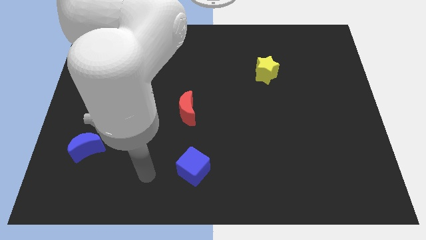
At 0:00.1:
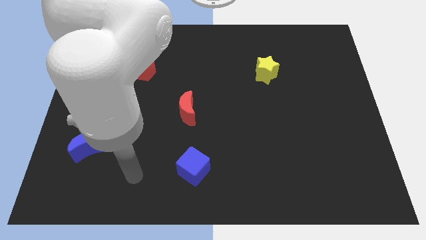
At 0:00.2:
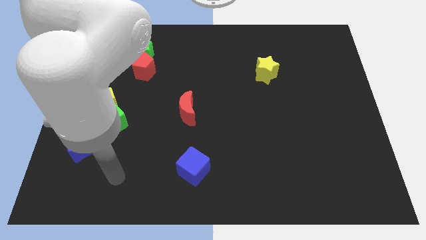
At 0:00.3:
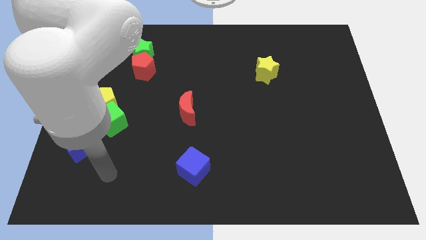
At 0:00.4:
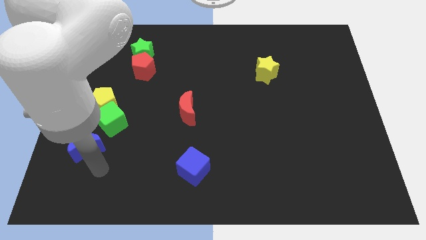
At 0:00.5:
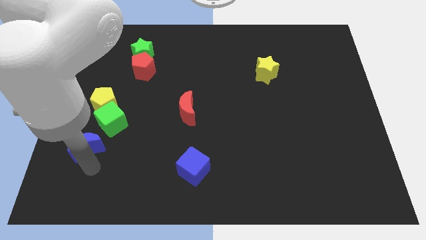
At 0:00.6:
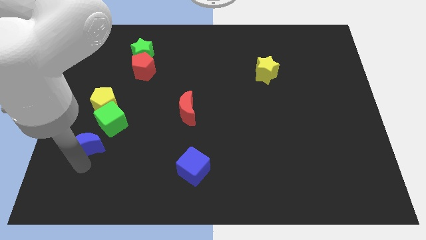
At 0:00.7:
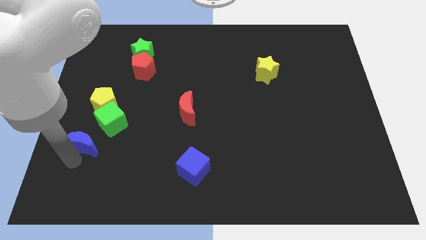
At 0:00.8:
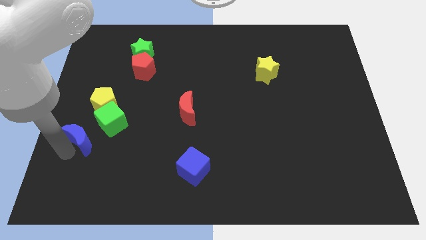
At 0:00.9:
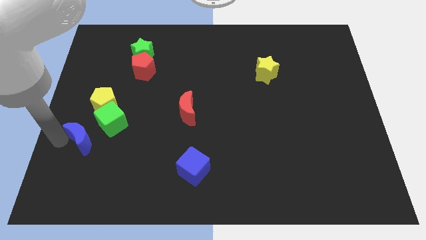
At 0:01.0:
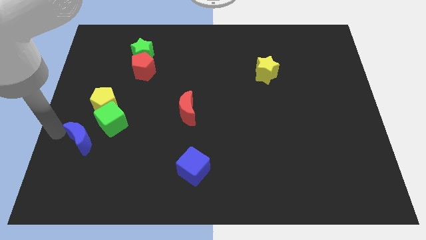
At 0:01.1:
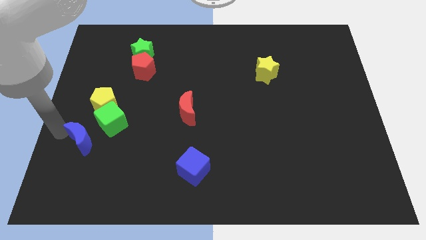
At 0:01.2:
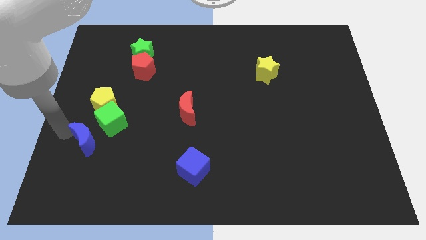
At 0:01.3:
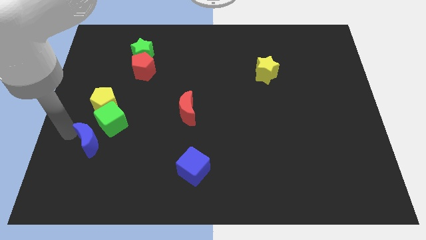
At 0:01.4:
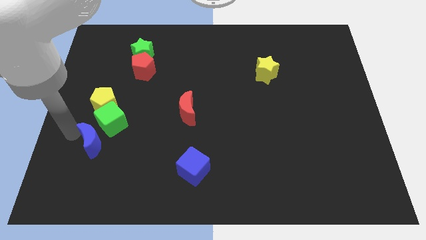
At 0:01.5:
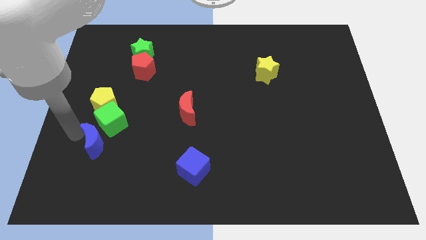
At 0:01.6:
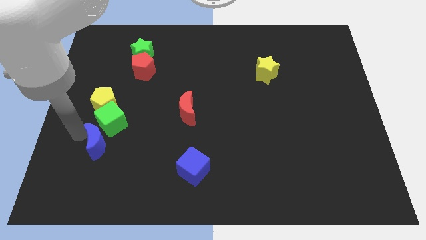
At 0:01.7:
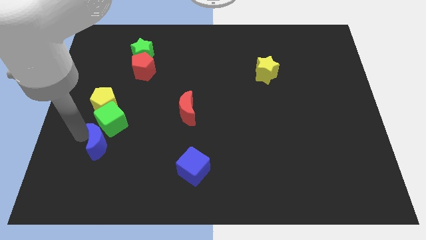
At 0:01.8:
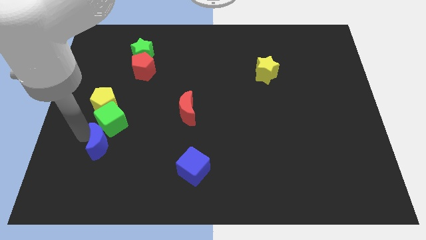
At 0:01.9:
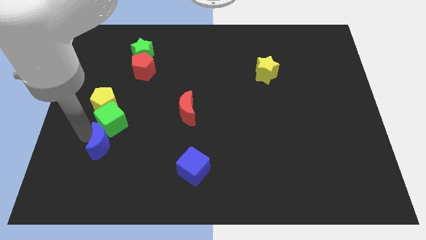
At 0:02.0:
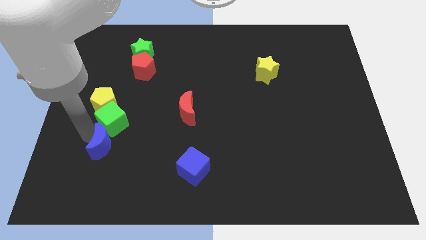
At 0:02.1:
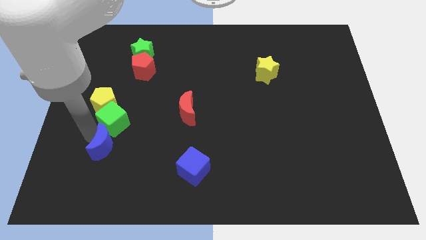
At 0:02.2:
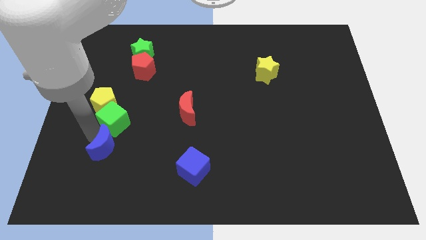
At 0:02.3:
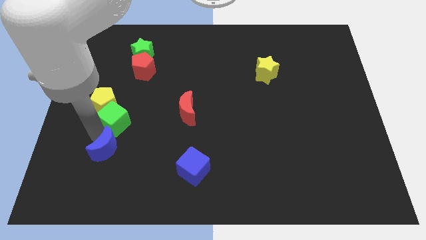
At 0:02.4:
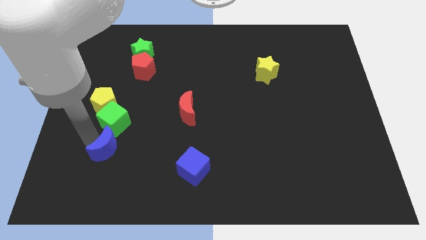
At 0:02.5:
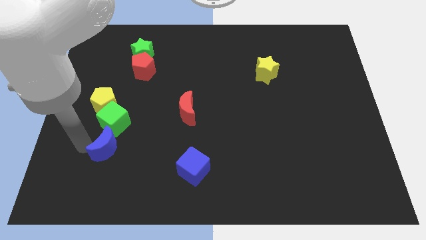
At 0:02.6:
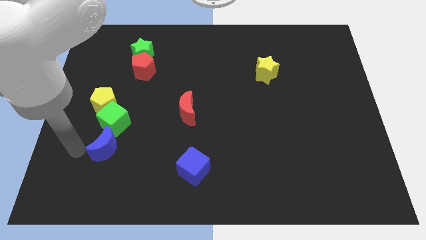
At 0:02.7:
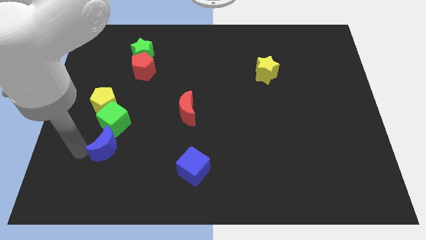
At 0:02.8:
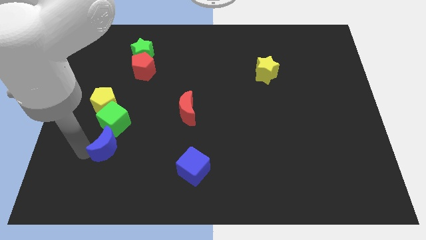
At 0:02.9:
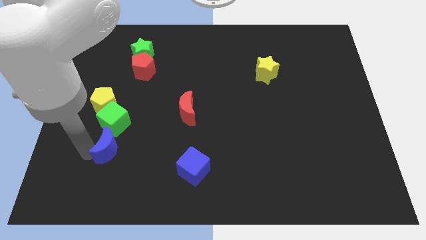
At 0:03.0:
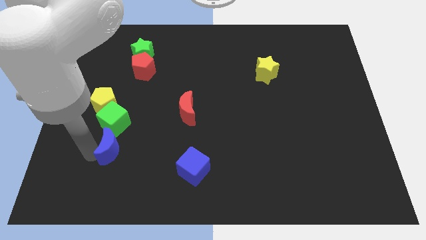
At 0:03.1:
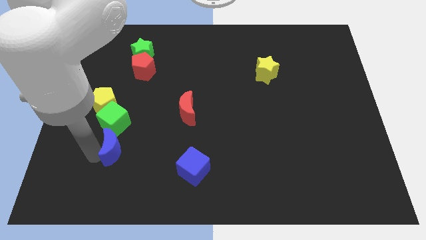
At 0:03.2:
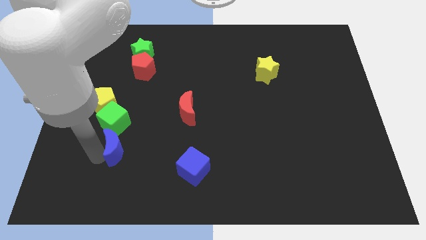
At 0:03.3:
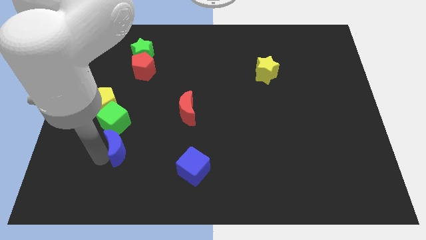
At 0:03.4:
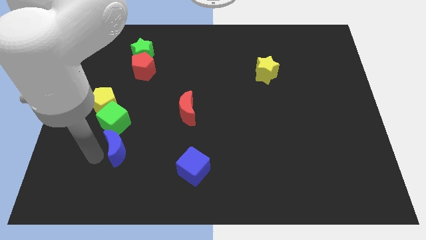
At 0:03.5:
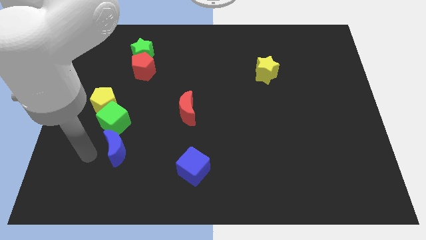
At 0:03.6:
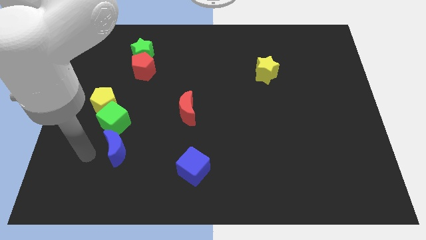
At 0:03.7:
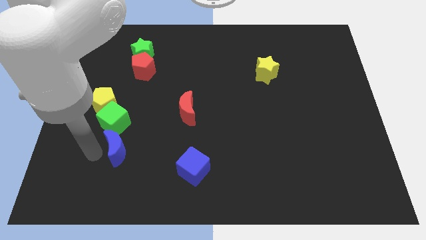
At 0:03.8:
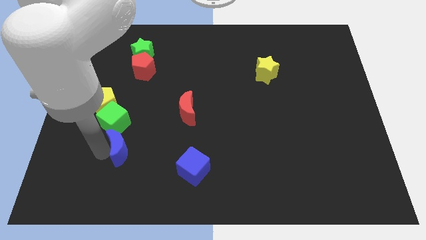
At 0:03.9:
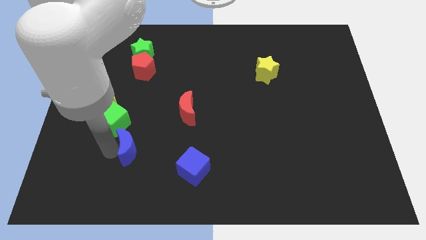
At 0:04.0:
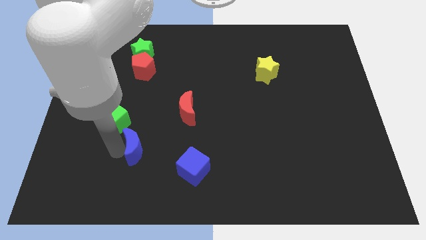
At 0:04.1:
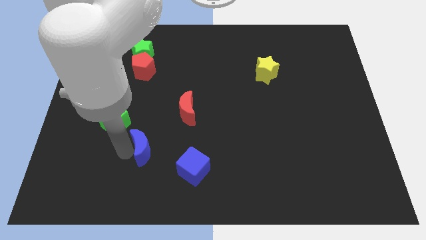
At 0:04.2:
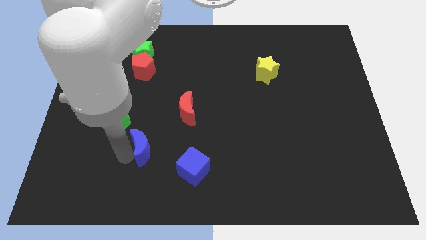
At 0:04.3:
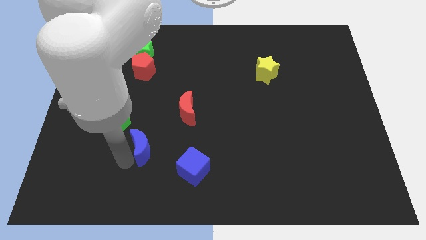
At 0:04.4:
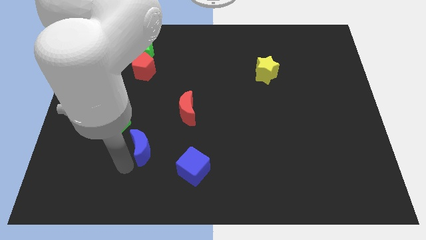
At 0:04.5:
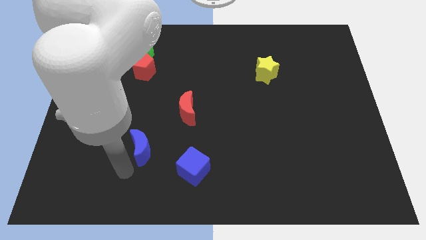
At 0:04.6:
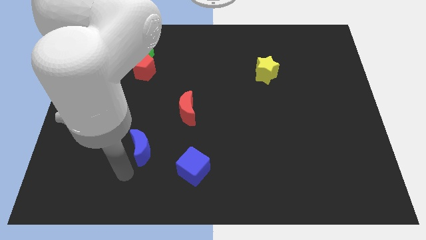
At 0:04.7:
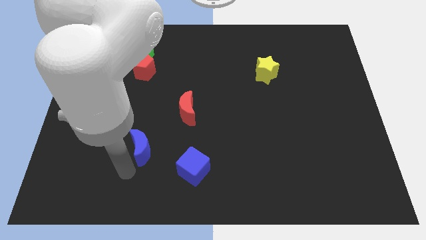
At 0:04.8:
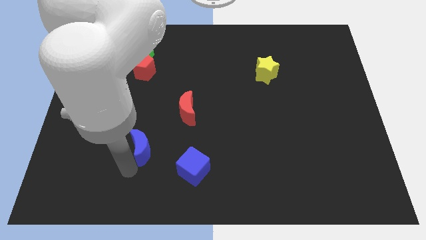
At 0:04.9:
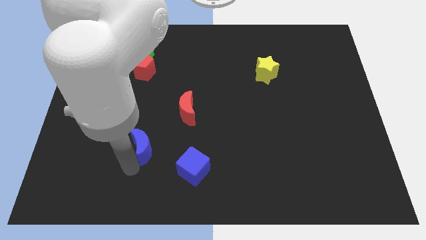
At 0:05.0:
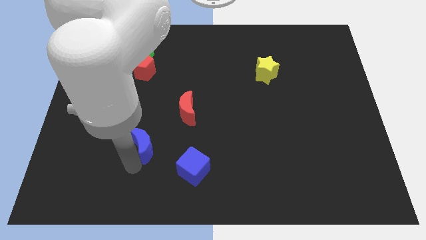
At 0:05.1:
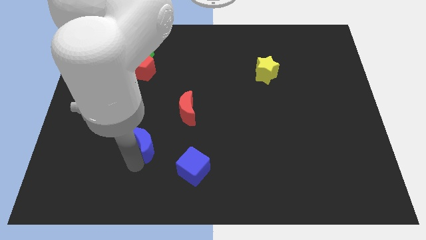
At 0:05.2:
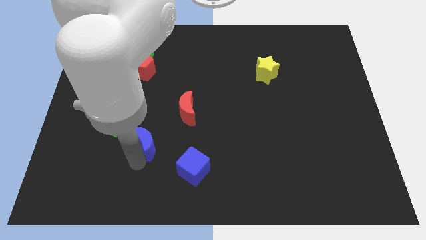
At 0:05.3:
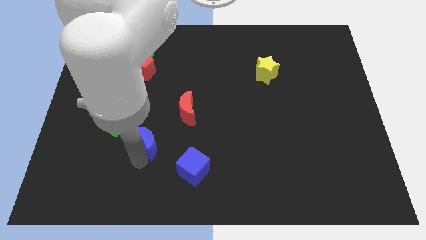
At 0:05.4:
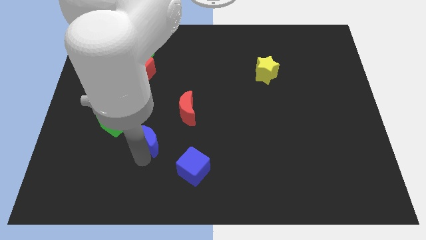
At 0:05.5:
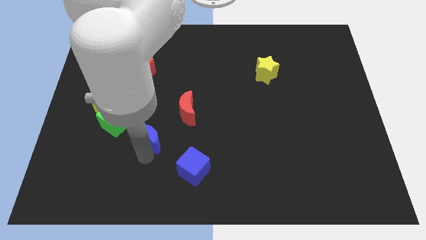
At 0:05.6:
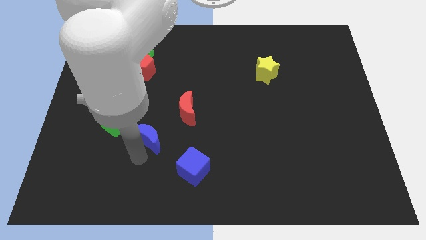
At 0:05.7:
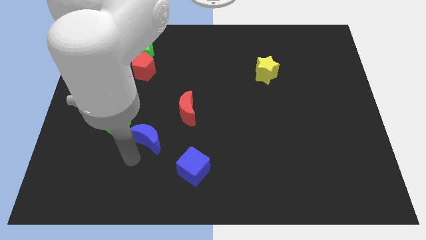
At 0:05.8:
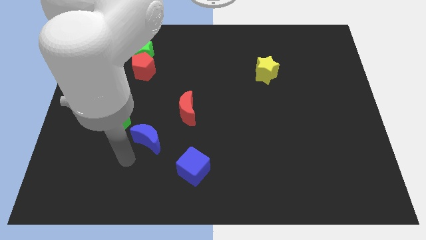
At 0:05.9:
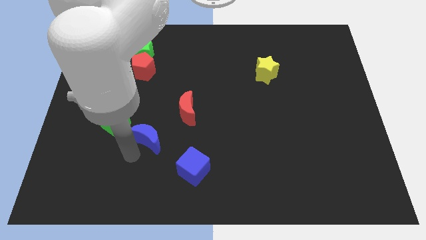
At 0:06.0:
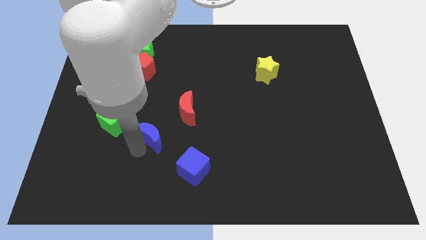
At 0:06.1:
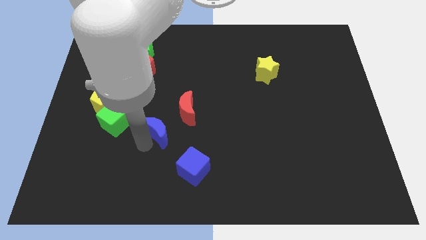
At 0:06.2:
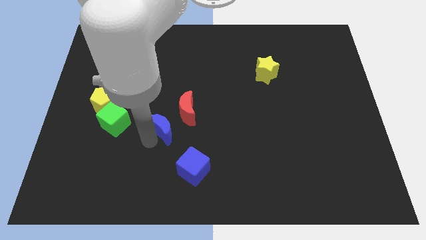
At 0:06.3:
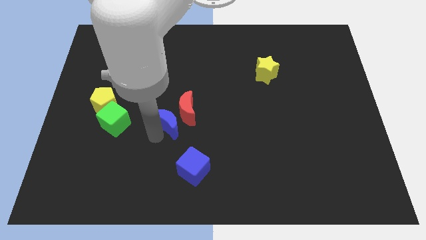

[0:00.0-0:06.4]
put the blue moon close to the red moon

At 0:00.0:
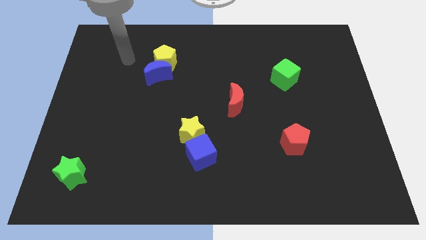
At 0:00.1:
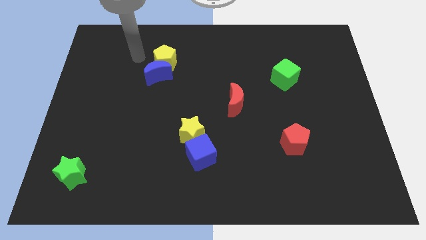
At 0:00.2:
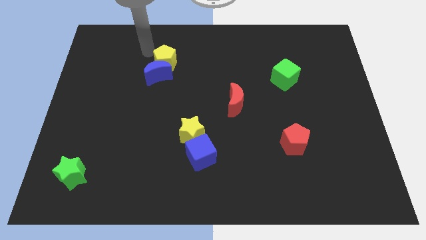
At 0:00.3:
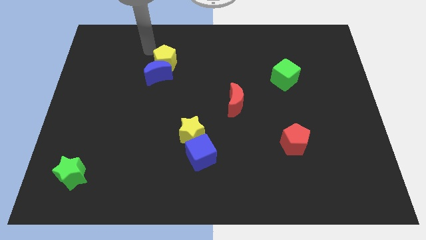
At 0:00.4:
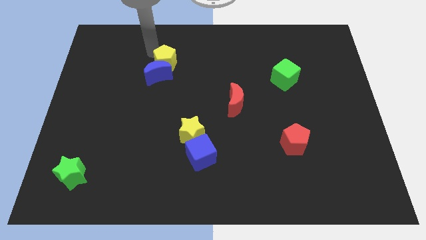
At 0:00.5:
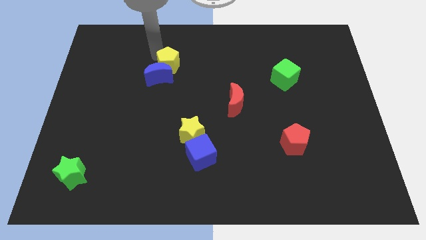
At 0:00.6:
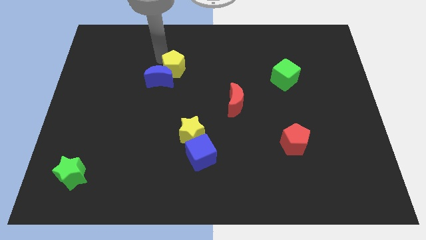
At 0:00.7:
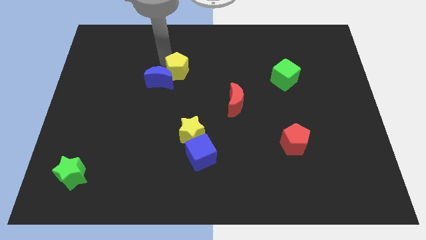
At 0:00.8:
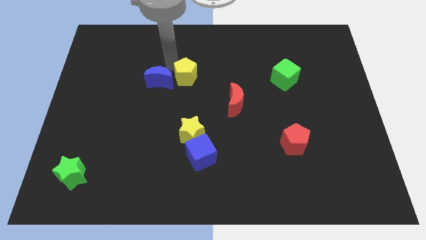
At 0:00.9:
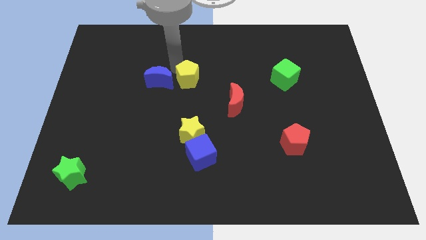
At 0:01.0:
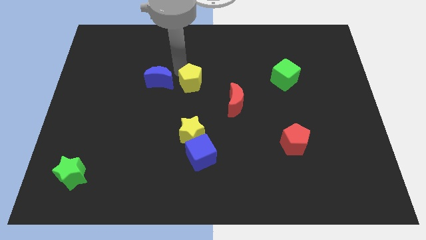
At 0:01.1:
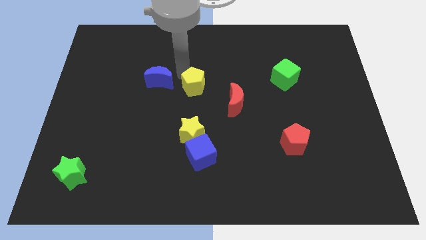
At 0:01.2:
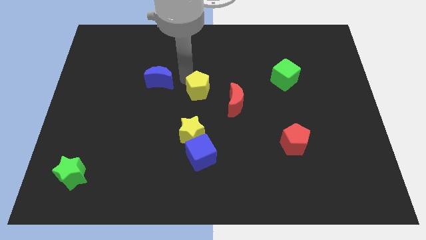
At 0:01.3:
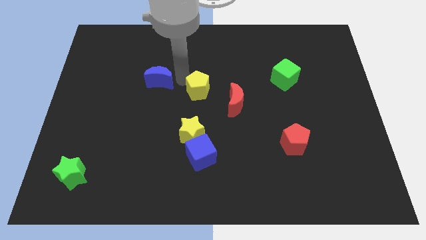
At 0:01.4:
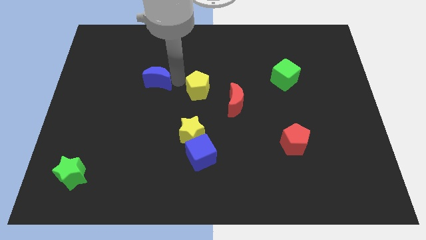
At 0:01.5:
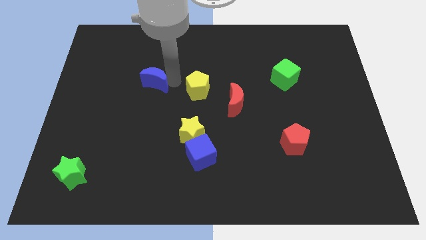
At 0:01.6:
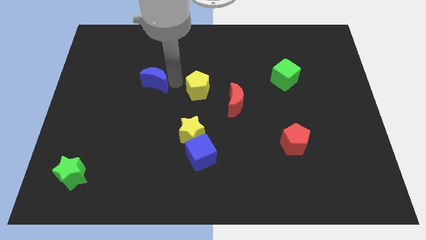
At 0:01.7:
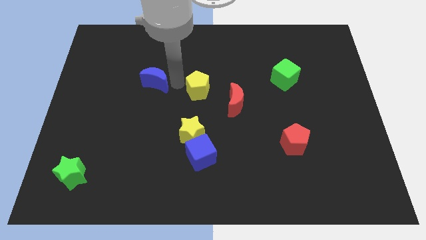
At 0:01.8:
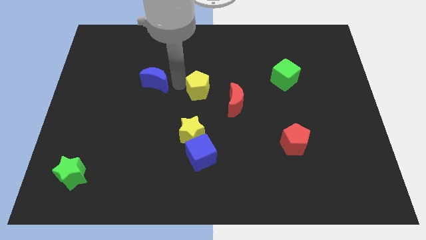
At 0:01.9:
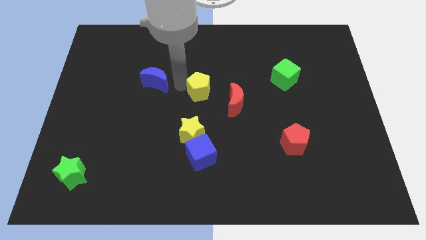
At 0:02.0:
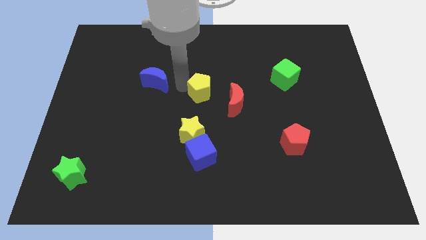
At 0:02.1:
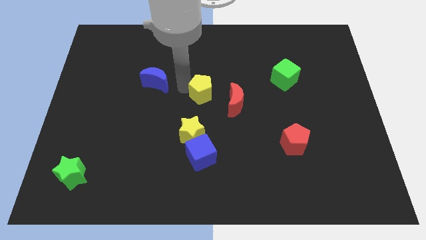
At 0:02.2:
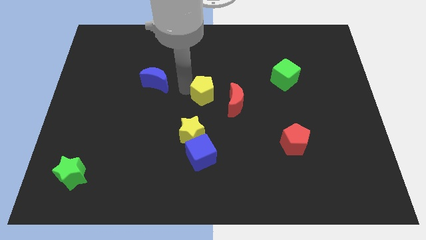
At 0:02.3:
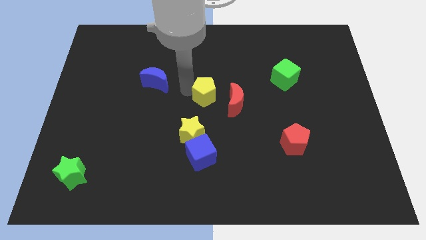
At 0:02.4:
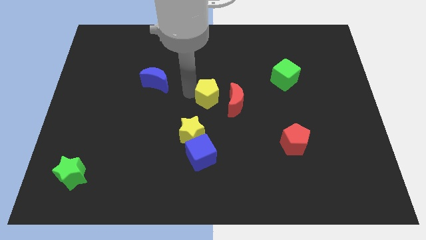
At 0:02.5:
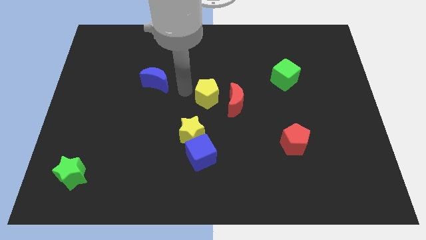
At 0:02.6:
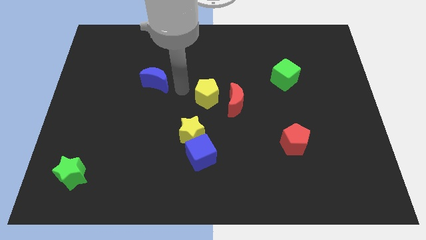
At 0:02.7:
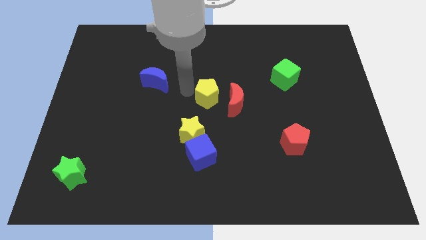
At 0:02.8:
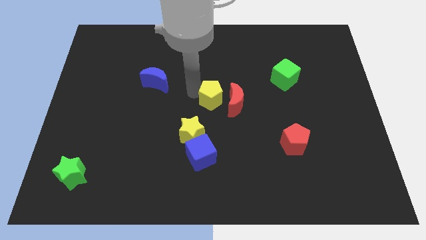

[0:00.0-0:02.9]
put the yellow pentagon next to the red moon
